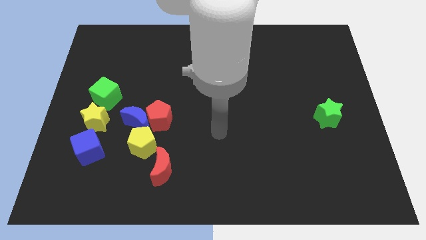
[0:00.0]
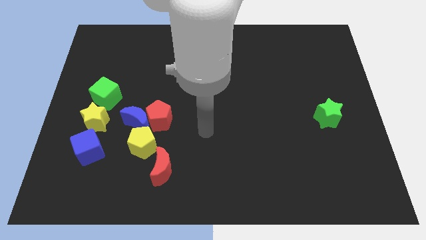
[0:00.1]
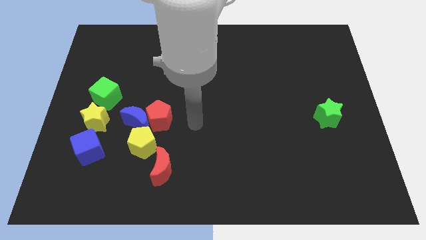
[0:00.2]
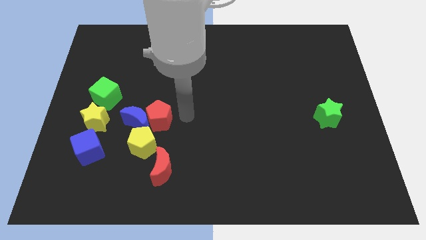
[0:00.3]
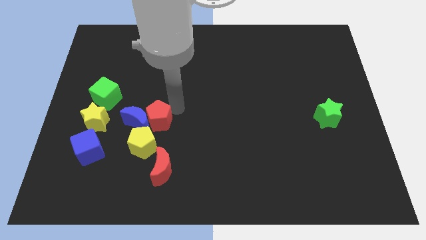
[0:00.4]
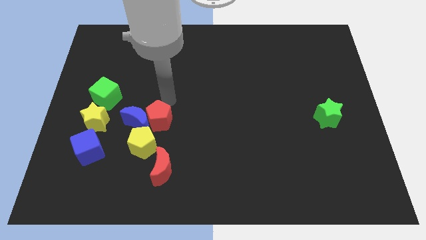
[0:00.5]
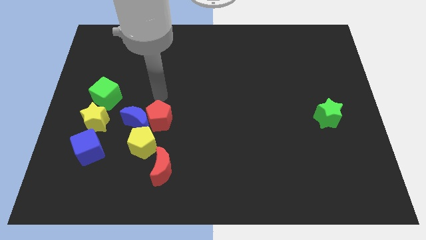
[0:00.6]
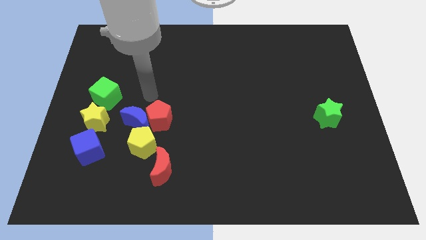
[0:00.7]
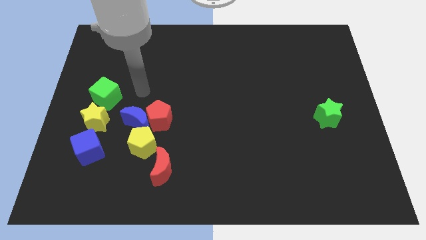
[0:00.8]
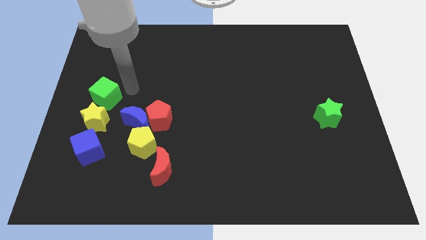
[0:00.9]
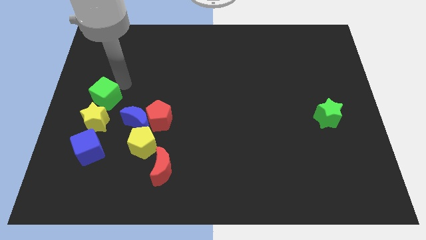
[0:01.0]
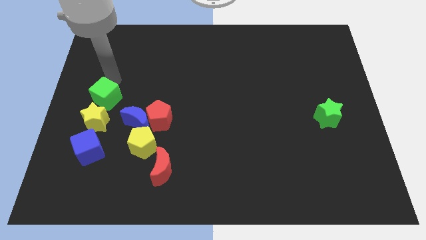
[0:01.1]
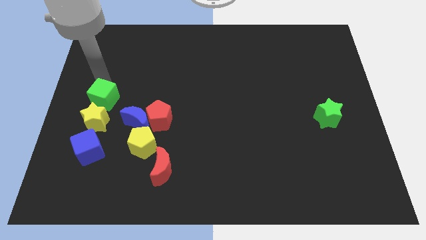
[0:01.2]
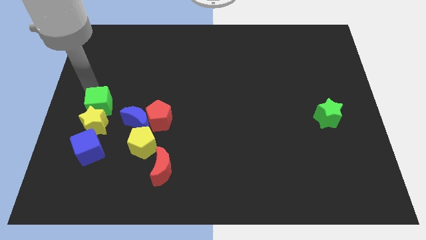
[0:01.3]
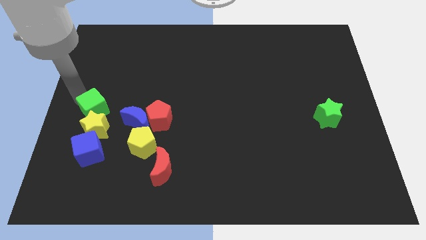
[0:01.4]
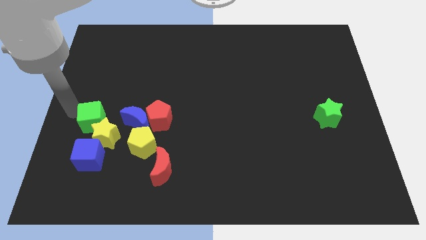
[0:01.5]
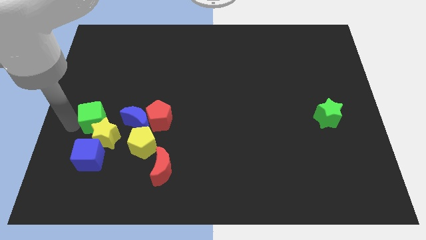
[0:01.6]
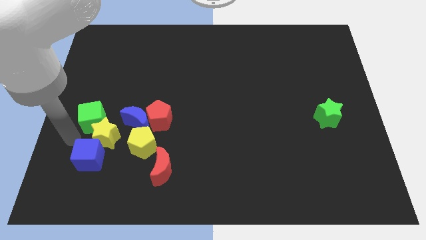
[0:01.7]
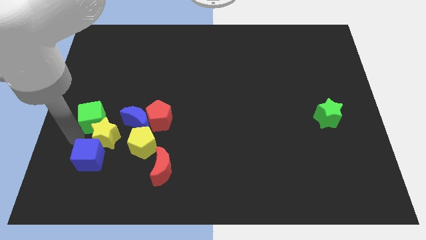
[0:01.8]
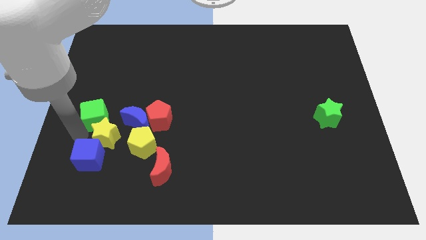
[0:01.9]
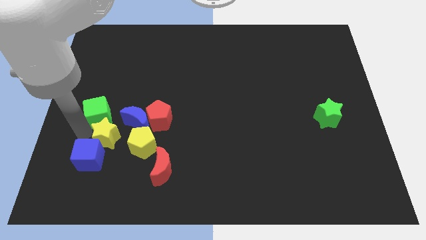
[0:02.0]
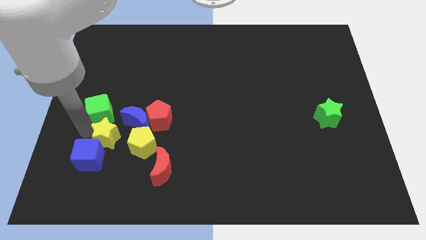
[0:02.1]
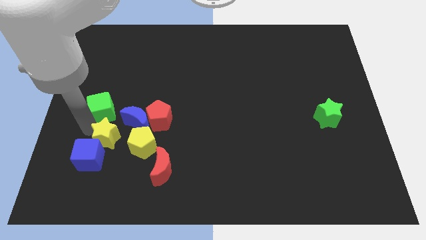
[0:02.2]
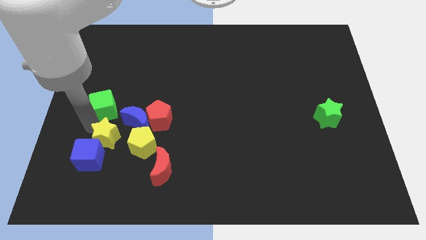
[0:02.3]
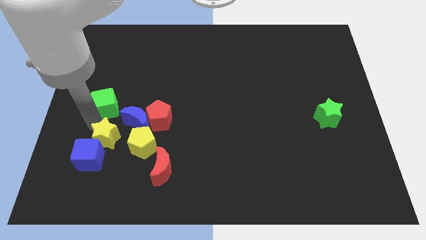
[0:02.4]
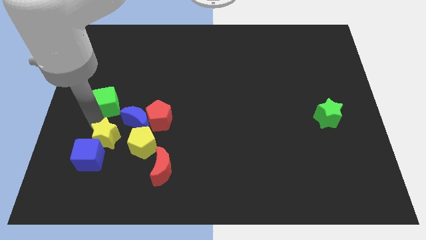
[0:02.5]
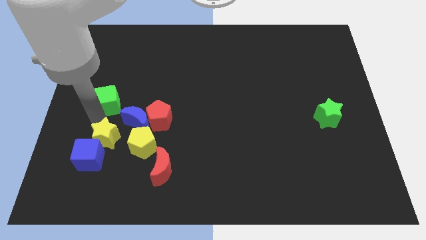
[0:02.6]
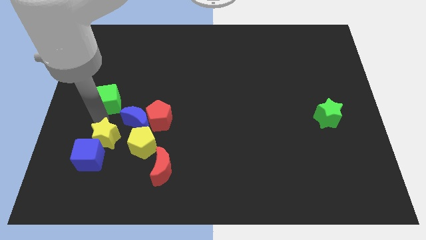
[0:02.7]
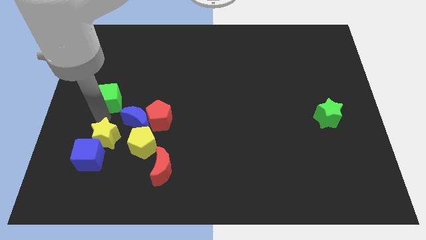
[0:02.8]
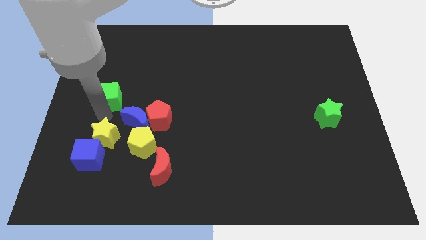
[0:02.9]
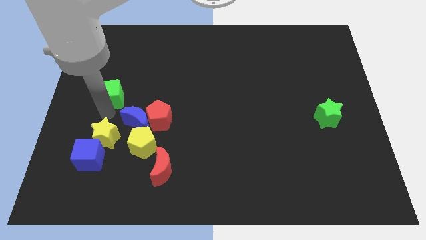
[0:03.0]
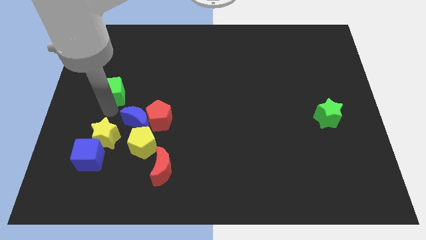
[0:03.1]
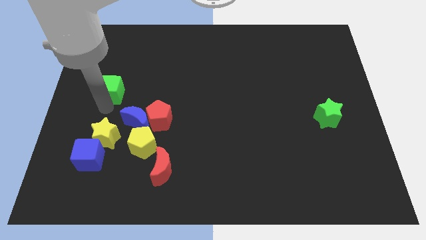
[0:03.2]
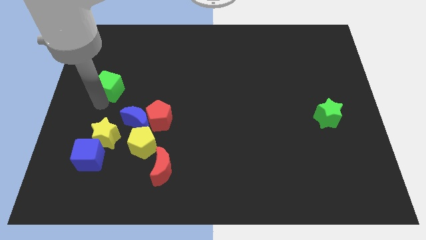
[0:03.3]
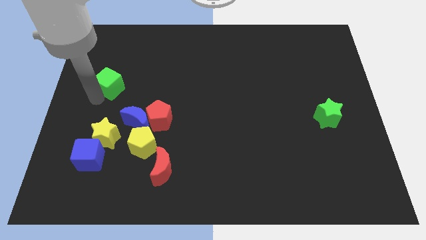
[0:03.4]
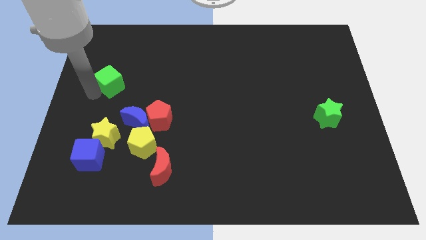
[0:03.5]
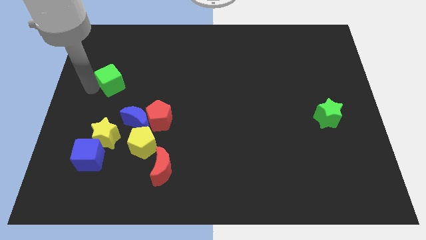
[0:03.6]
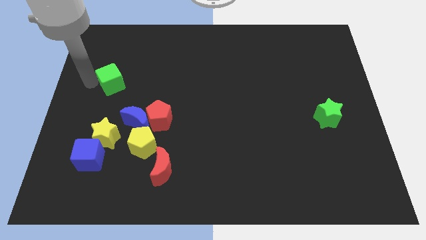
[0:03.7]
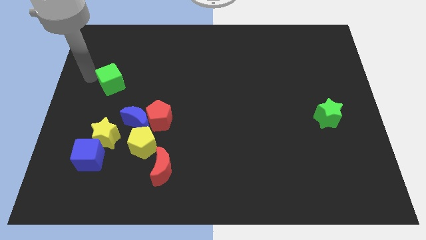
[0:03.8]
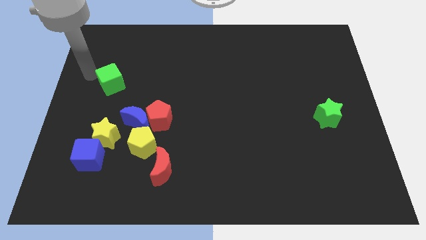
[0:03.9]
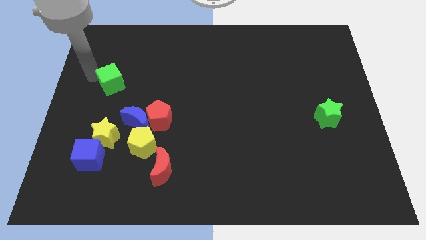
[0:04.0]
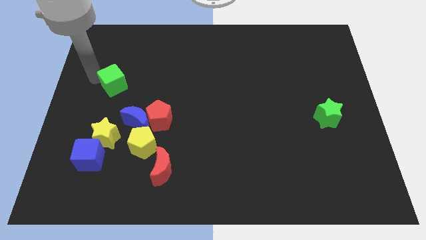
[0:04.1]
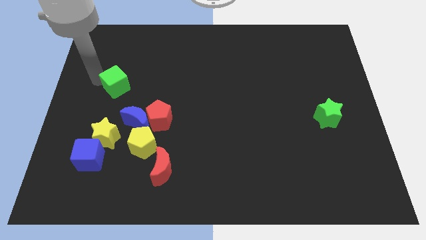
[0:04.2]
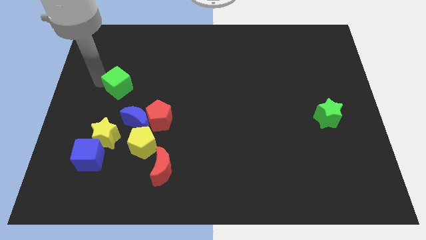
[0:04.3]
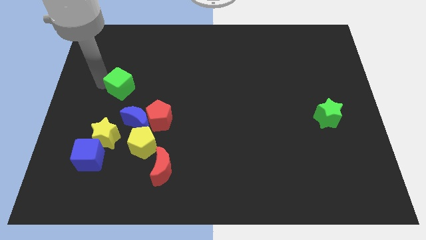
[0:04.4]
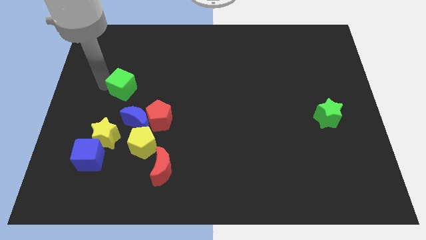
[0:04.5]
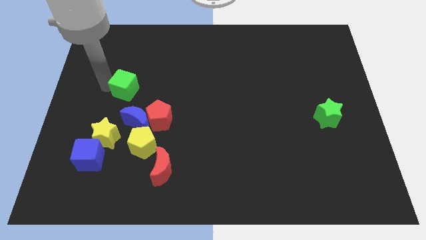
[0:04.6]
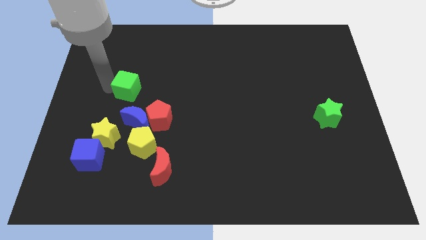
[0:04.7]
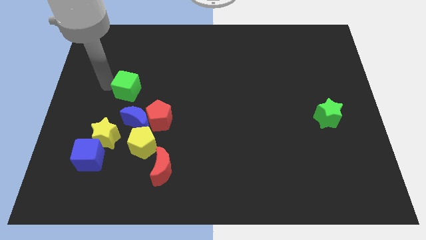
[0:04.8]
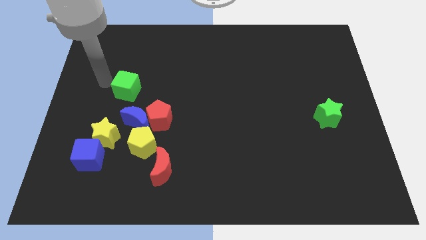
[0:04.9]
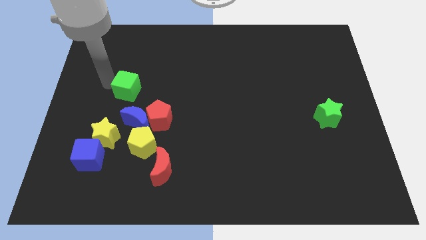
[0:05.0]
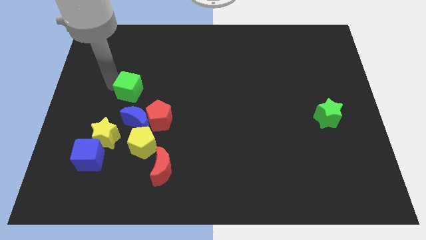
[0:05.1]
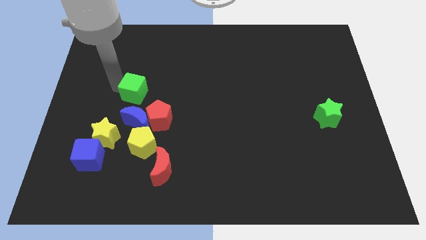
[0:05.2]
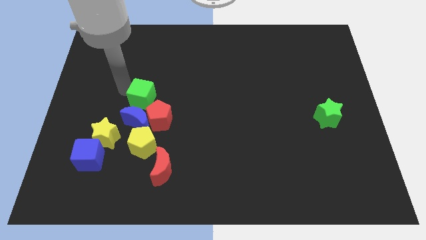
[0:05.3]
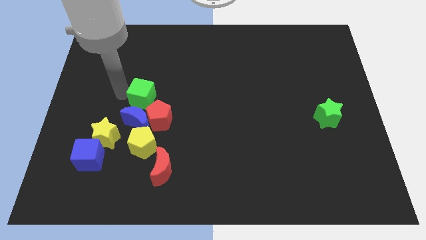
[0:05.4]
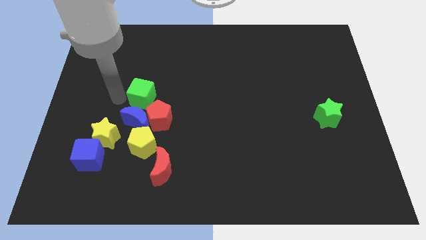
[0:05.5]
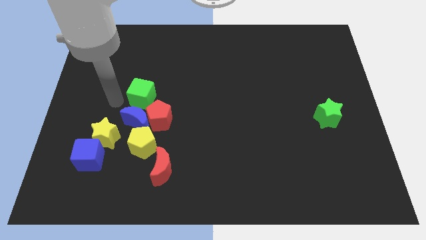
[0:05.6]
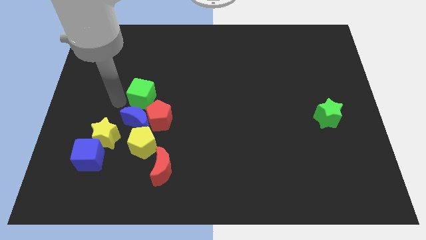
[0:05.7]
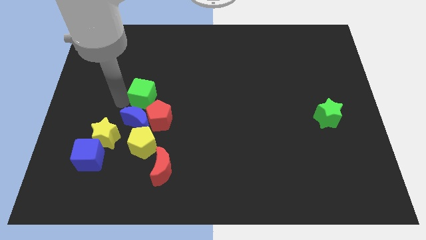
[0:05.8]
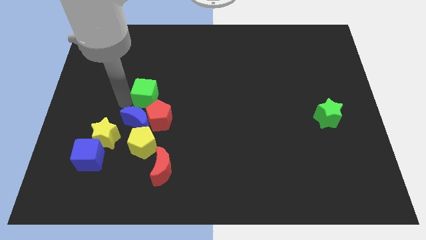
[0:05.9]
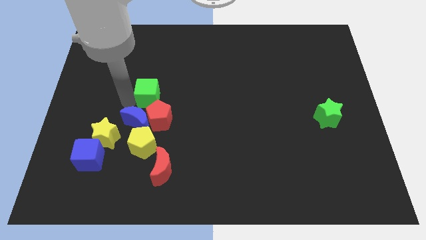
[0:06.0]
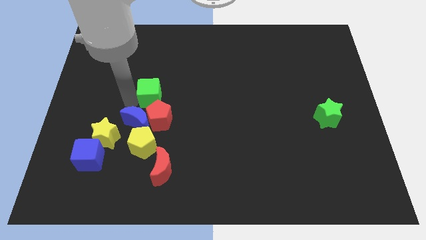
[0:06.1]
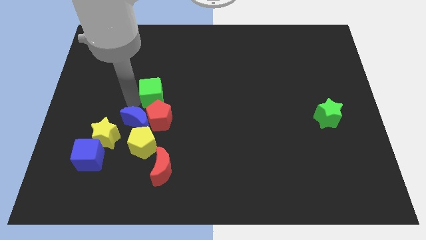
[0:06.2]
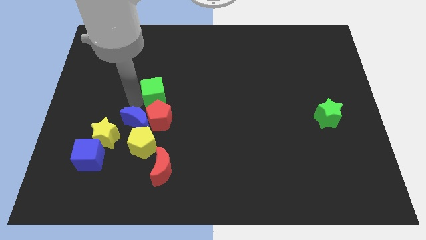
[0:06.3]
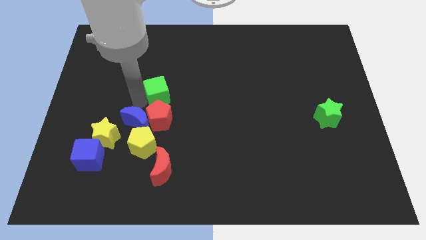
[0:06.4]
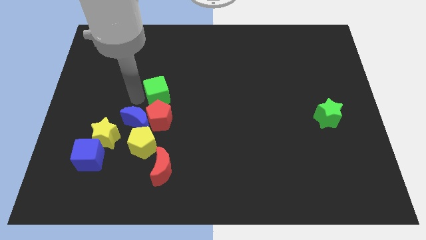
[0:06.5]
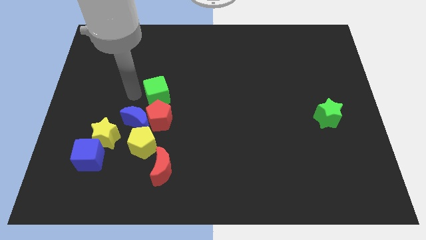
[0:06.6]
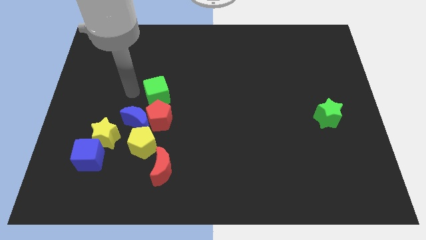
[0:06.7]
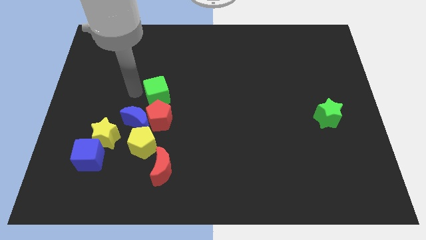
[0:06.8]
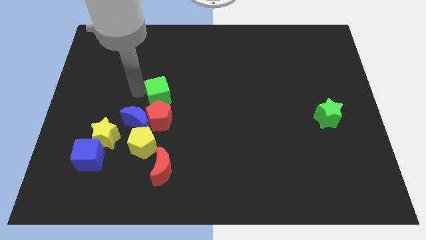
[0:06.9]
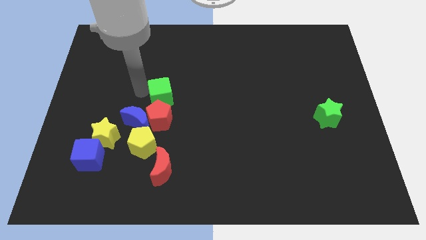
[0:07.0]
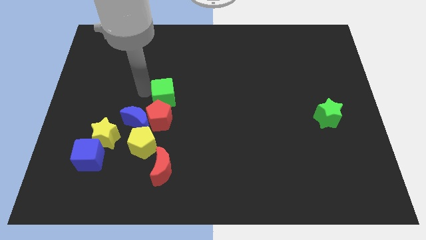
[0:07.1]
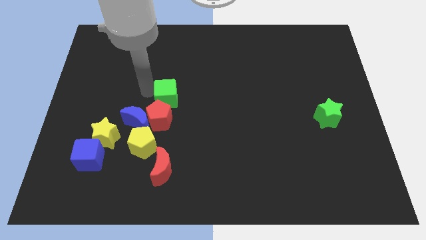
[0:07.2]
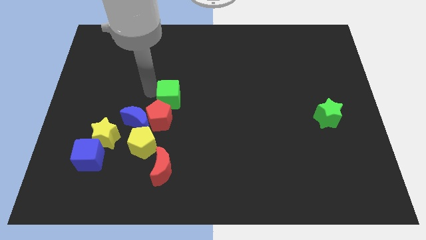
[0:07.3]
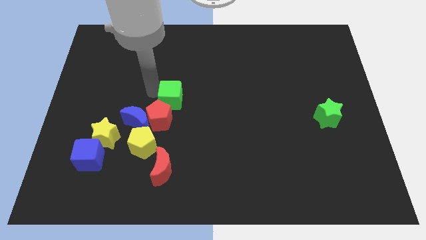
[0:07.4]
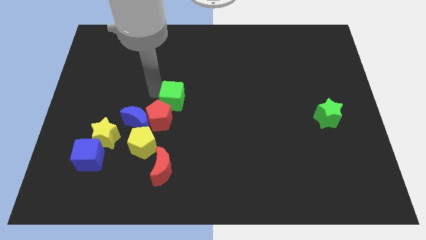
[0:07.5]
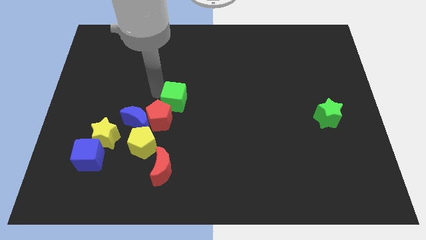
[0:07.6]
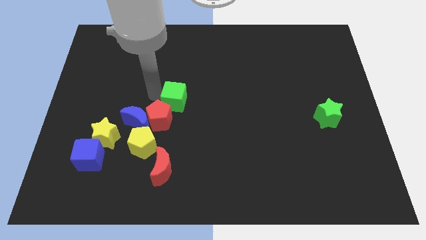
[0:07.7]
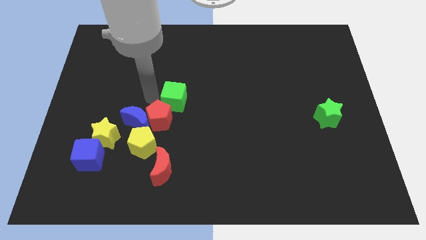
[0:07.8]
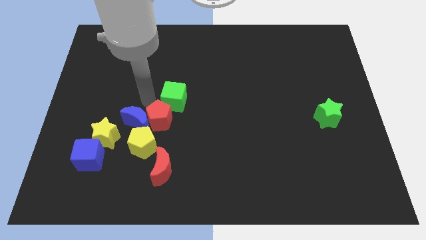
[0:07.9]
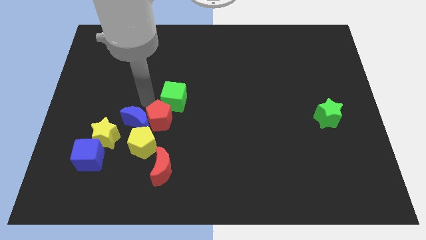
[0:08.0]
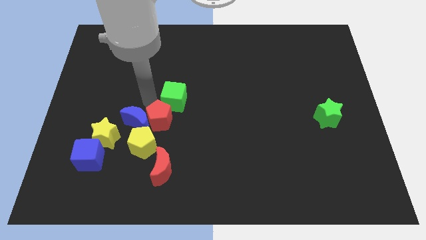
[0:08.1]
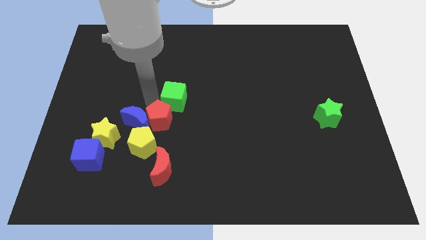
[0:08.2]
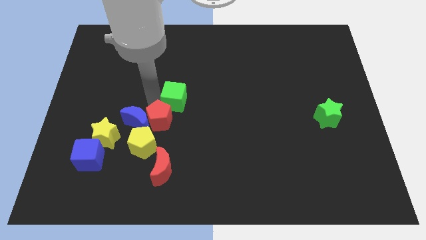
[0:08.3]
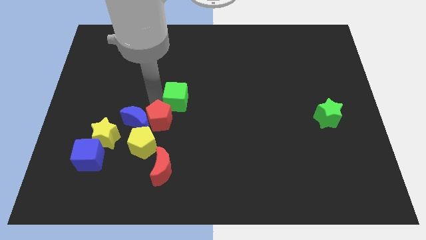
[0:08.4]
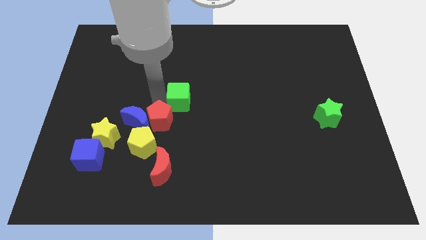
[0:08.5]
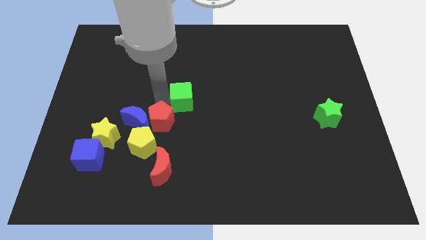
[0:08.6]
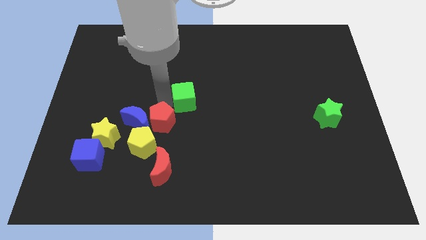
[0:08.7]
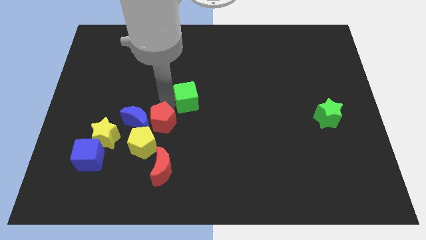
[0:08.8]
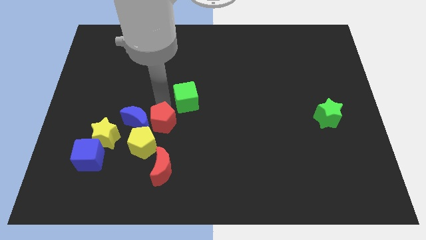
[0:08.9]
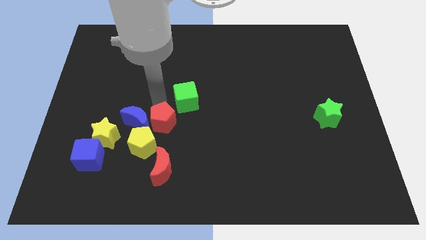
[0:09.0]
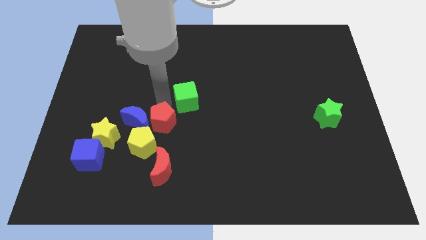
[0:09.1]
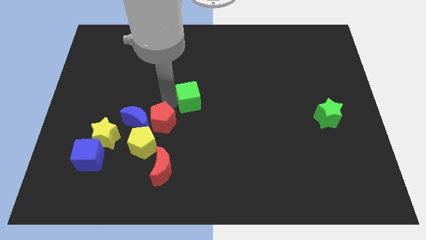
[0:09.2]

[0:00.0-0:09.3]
push the green cube to the right
